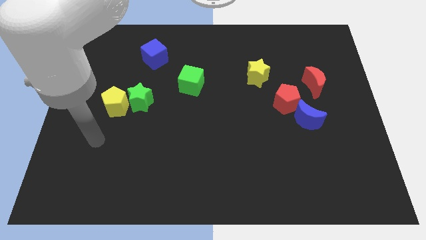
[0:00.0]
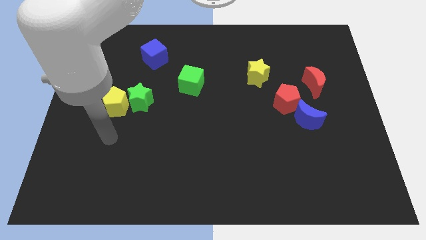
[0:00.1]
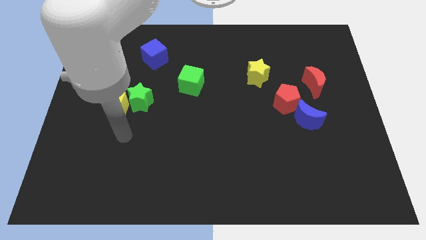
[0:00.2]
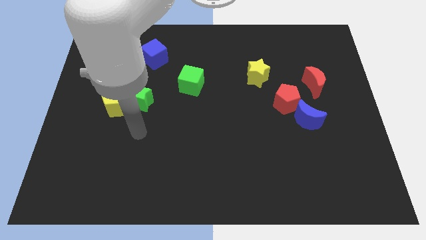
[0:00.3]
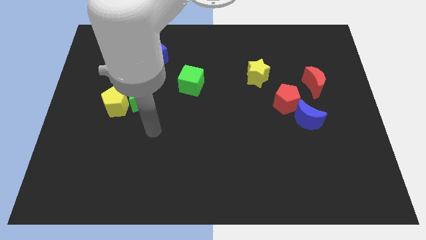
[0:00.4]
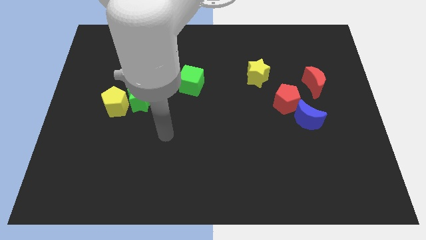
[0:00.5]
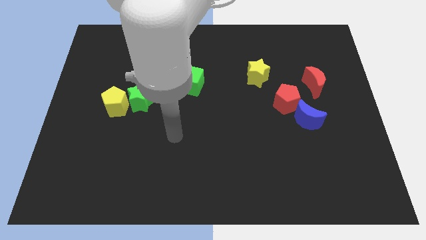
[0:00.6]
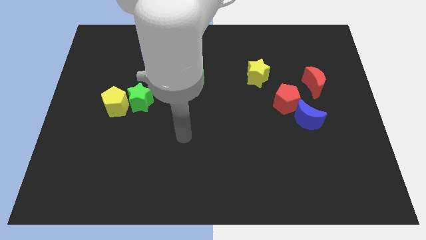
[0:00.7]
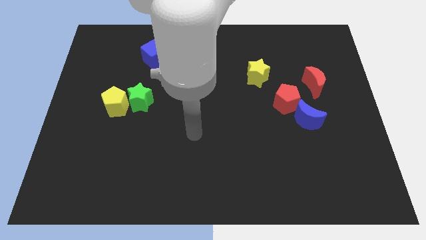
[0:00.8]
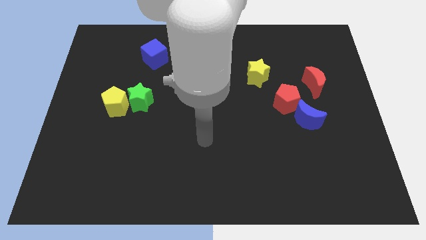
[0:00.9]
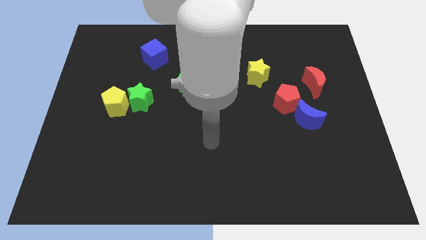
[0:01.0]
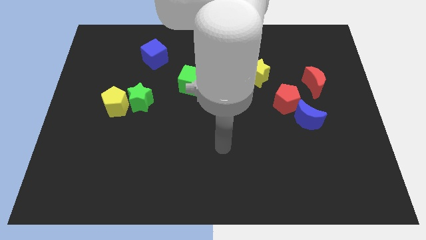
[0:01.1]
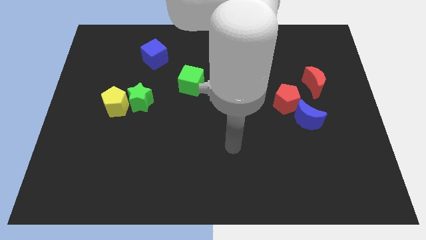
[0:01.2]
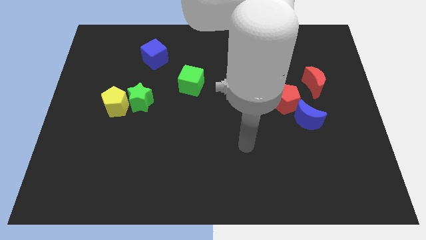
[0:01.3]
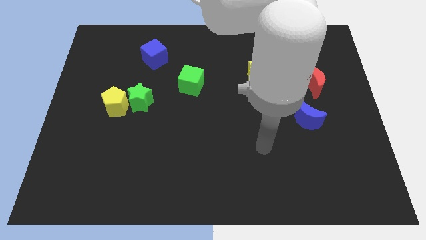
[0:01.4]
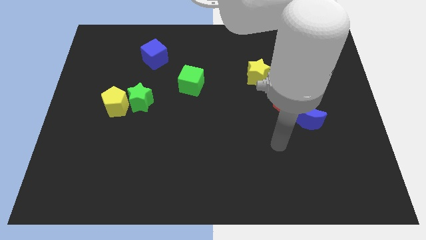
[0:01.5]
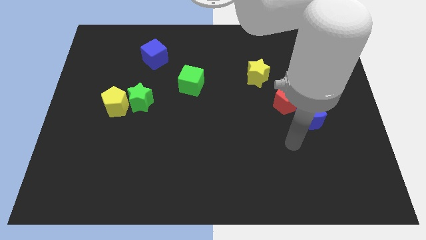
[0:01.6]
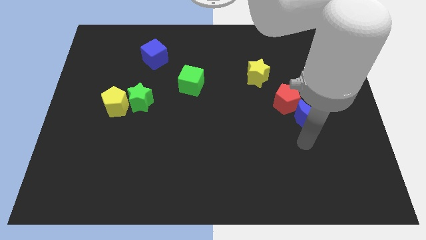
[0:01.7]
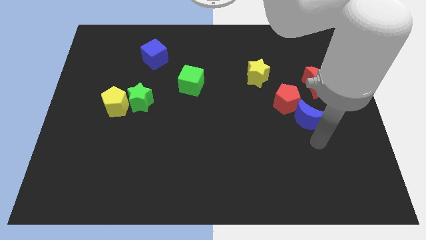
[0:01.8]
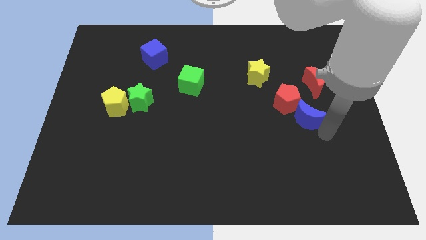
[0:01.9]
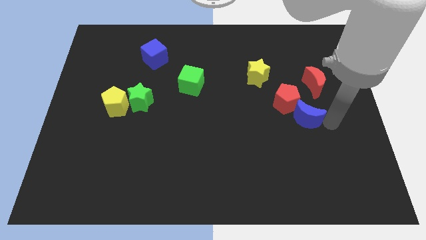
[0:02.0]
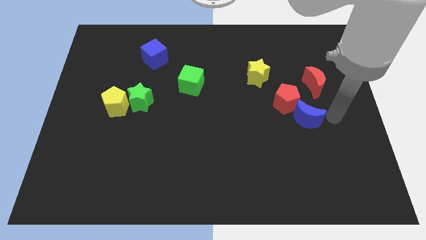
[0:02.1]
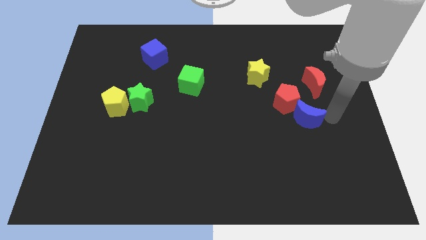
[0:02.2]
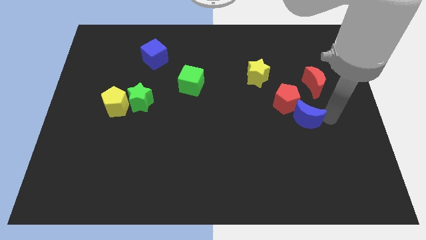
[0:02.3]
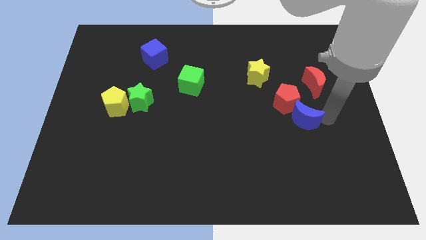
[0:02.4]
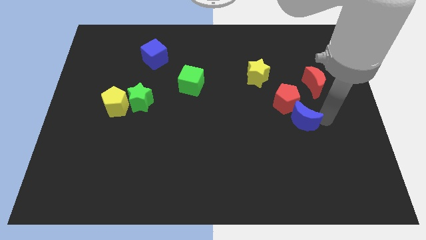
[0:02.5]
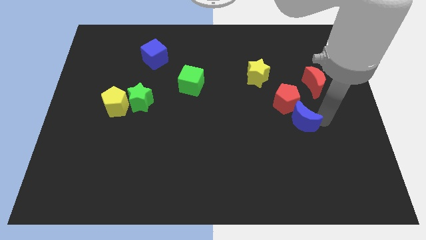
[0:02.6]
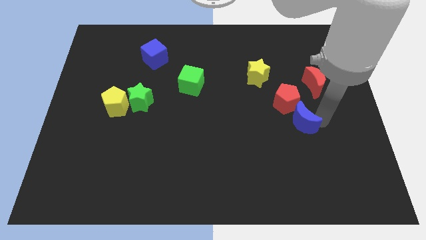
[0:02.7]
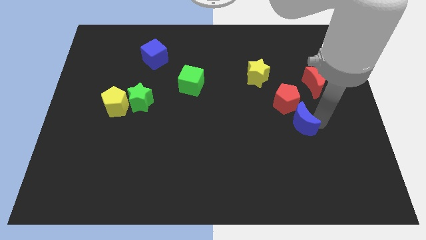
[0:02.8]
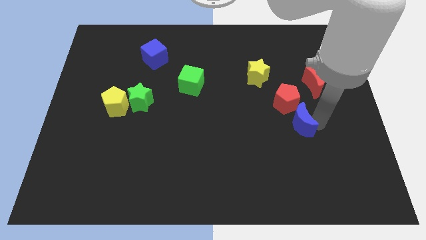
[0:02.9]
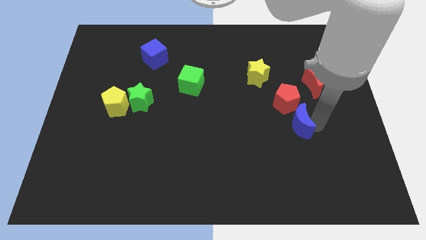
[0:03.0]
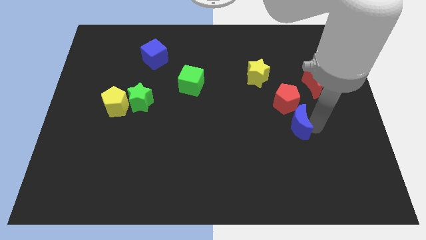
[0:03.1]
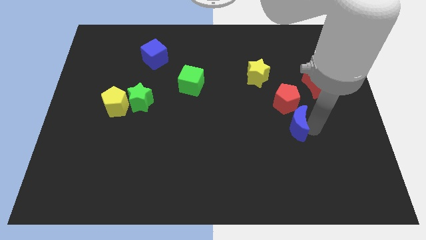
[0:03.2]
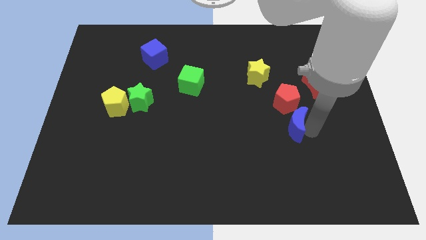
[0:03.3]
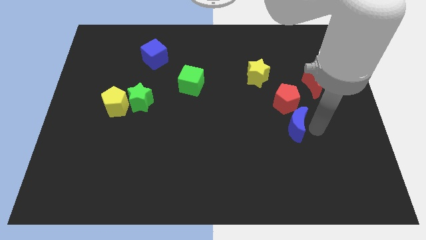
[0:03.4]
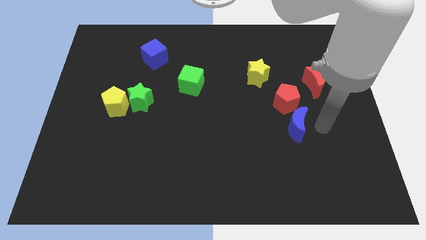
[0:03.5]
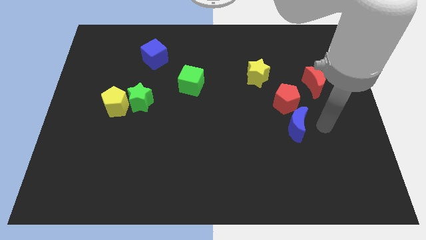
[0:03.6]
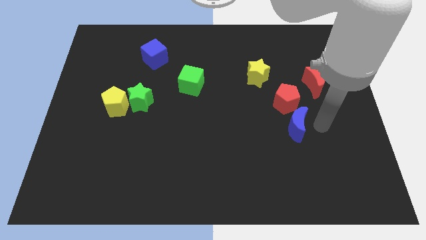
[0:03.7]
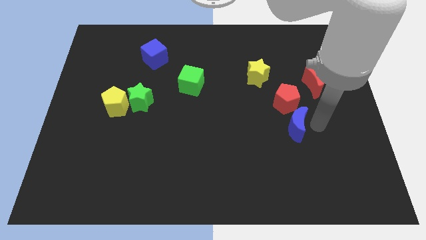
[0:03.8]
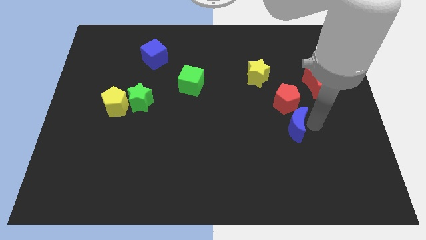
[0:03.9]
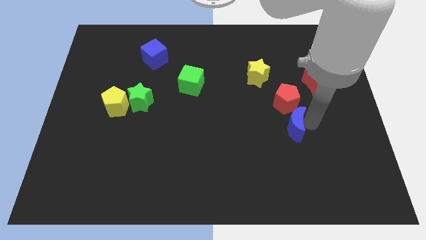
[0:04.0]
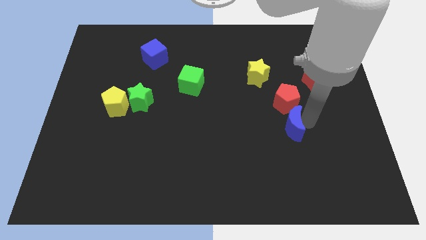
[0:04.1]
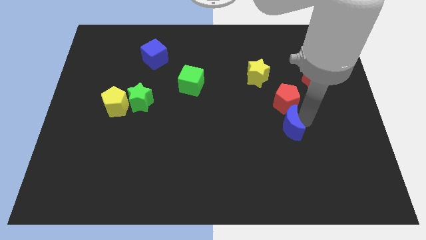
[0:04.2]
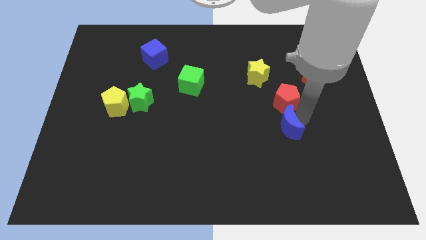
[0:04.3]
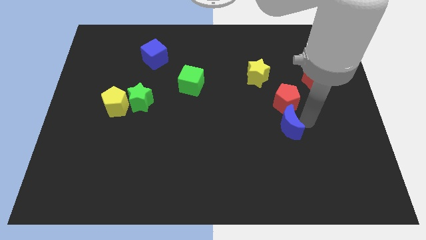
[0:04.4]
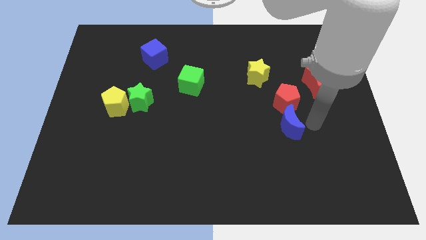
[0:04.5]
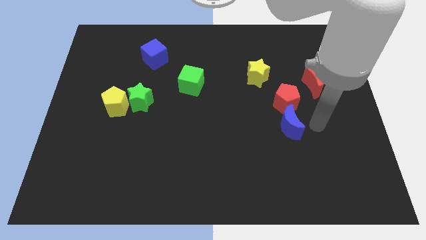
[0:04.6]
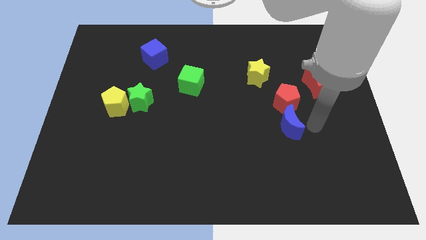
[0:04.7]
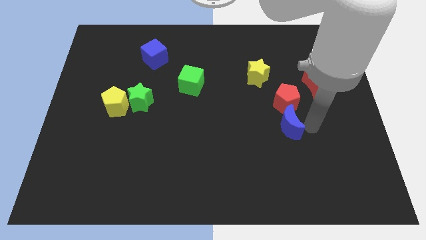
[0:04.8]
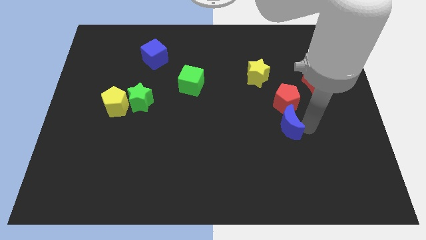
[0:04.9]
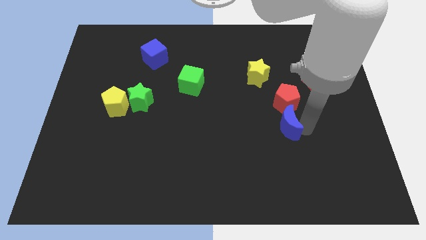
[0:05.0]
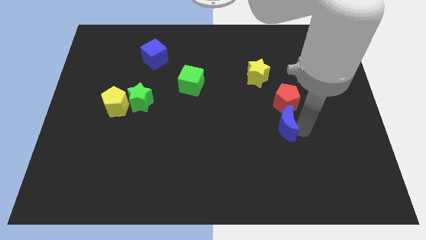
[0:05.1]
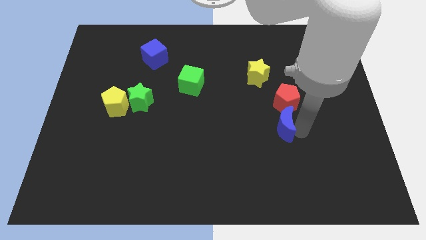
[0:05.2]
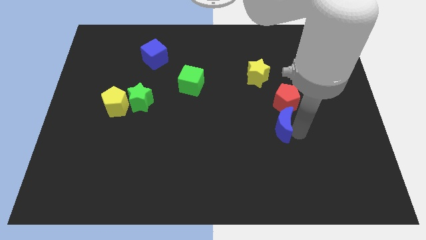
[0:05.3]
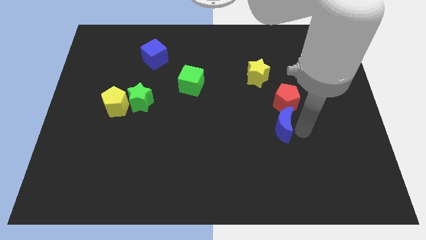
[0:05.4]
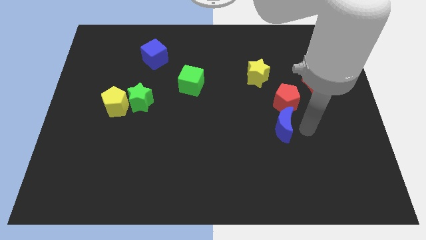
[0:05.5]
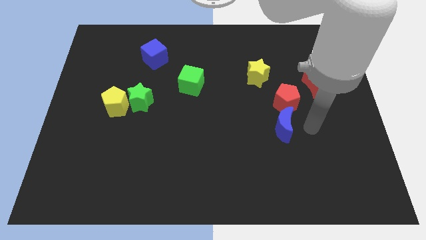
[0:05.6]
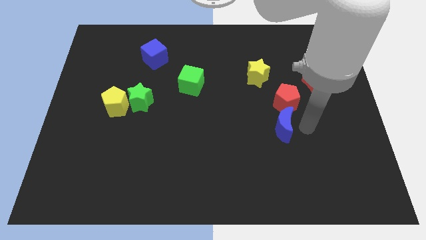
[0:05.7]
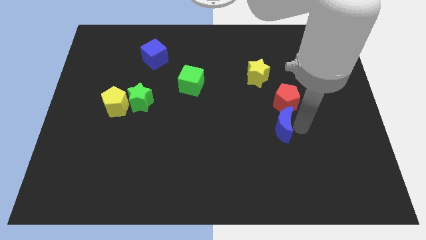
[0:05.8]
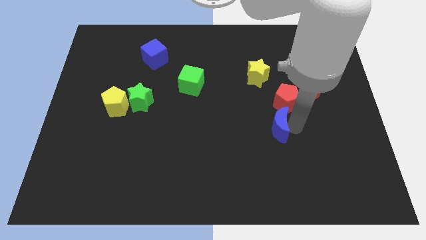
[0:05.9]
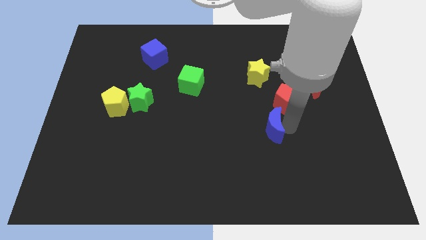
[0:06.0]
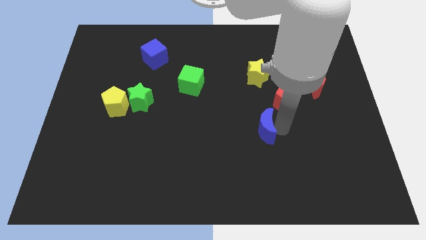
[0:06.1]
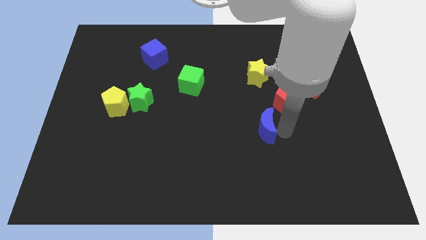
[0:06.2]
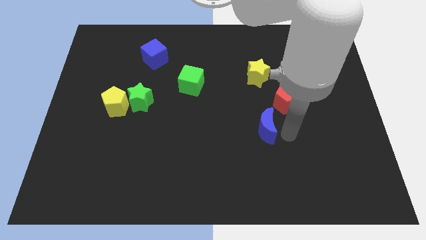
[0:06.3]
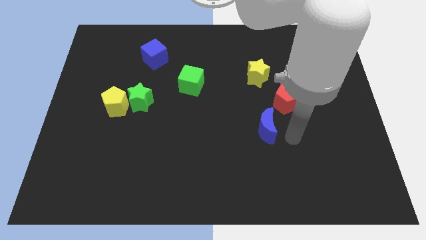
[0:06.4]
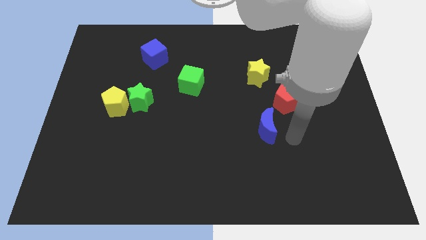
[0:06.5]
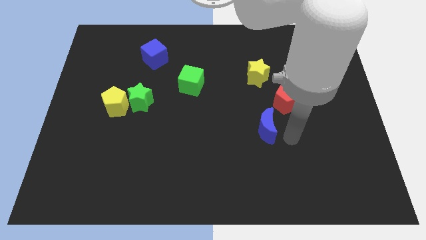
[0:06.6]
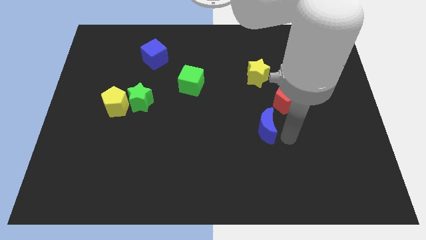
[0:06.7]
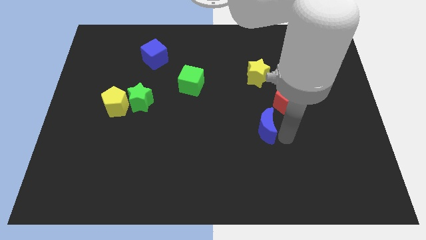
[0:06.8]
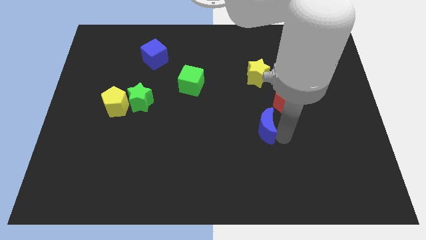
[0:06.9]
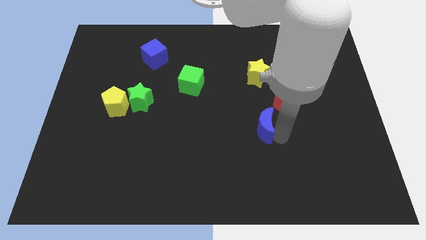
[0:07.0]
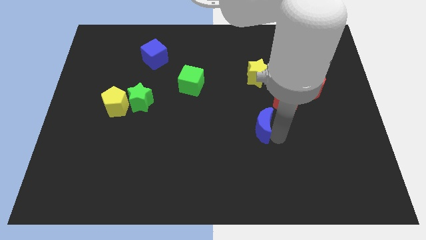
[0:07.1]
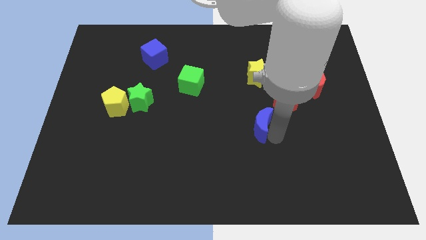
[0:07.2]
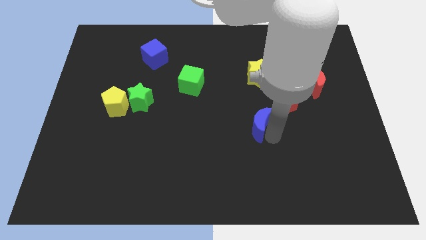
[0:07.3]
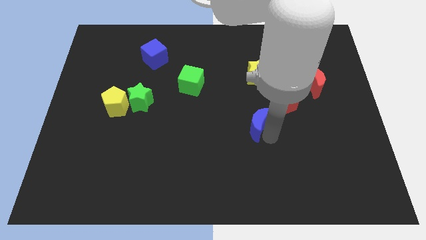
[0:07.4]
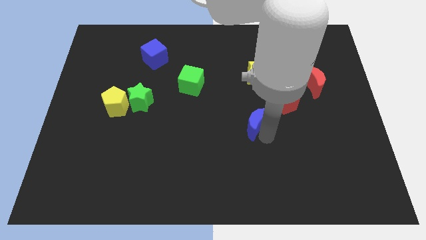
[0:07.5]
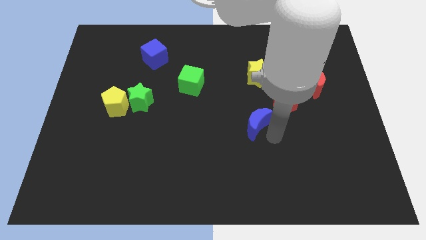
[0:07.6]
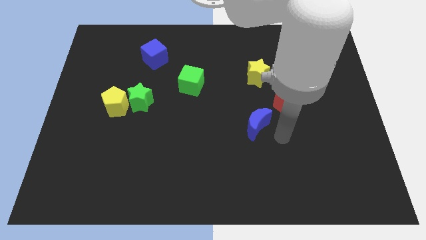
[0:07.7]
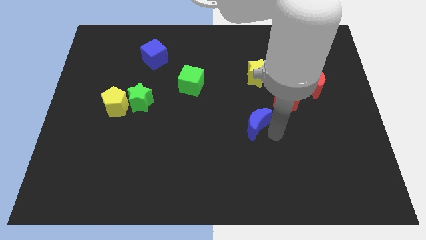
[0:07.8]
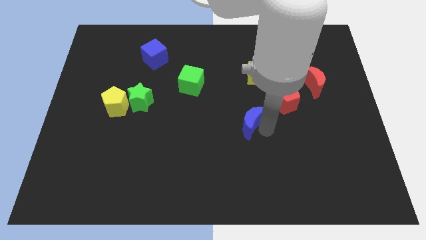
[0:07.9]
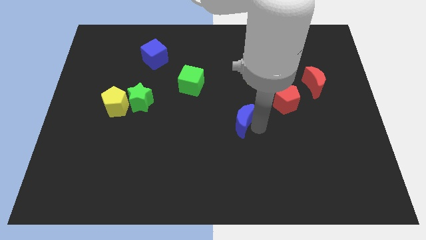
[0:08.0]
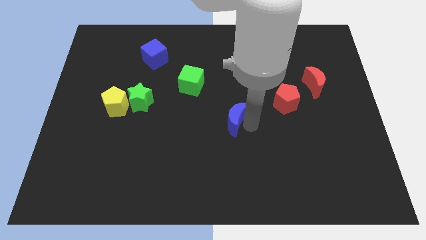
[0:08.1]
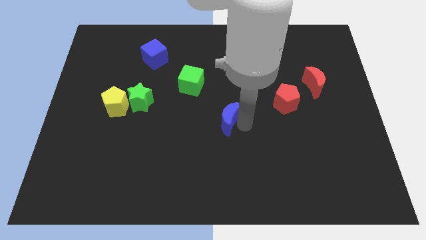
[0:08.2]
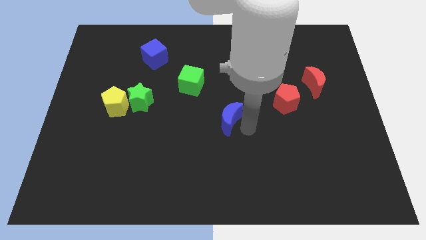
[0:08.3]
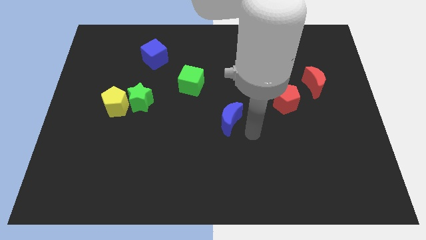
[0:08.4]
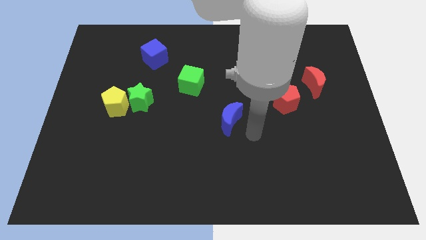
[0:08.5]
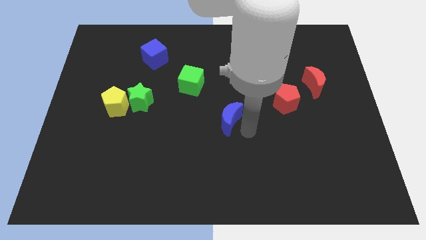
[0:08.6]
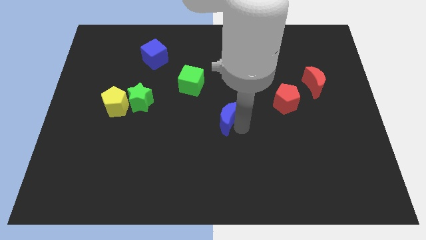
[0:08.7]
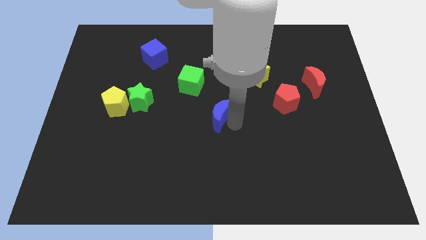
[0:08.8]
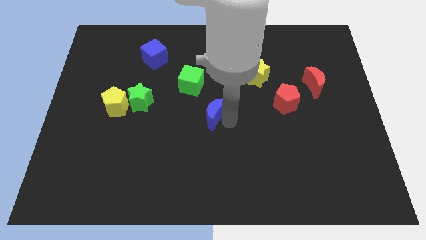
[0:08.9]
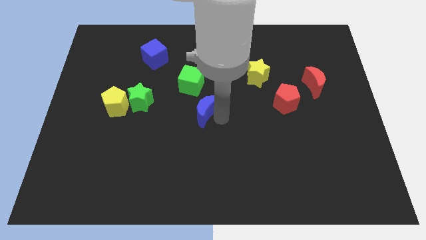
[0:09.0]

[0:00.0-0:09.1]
push the blue moon to the right side of the green star
